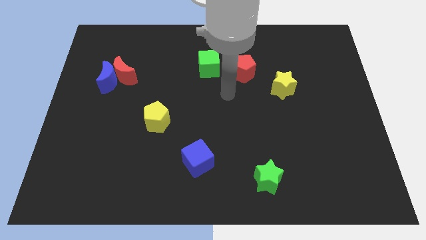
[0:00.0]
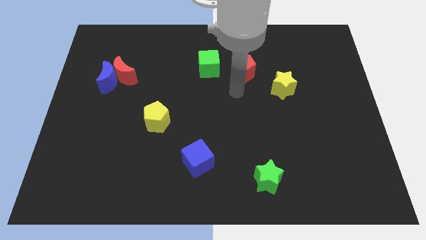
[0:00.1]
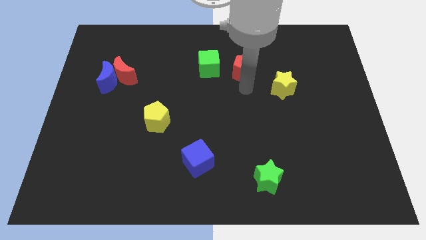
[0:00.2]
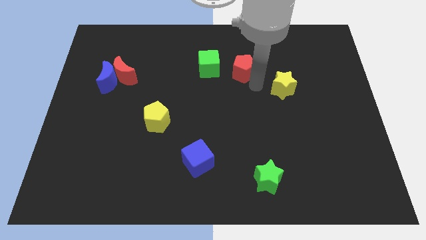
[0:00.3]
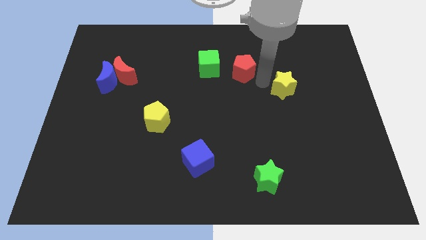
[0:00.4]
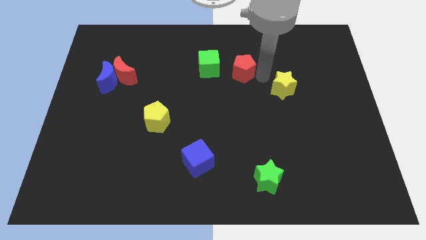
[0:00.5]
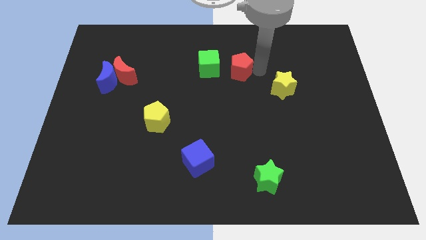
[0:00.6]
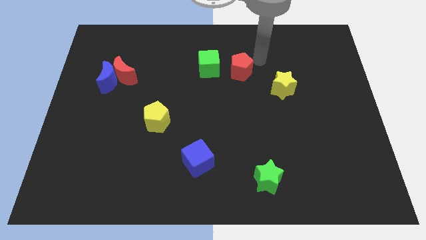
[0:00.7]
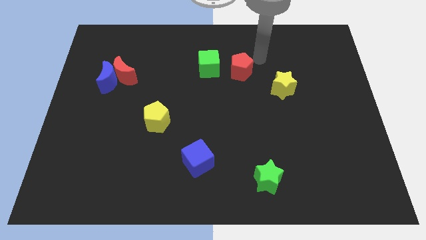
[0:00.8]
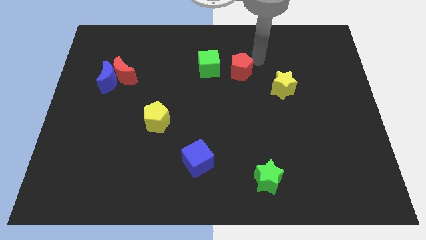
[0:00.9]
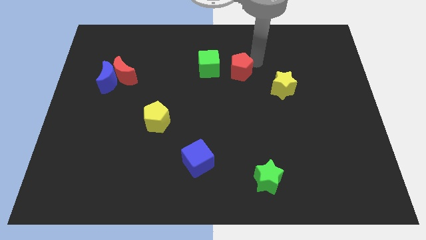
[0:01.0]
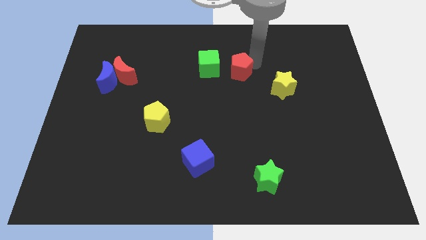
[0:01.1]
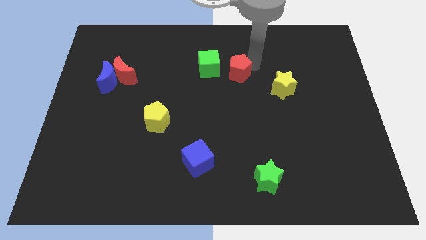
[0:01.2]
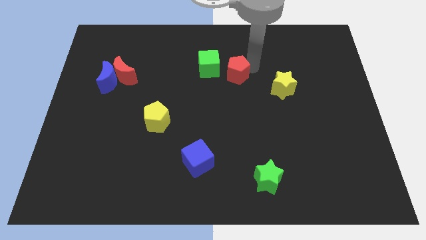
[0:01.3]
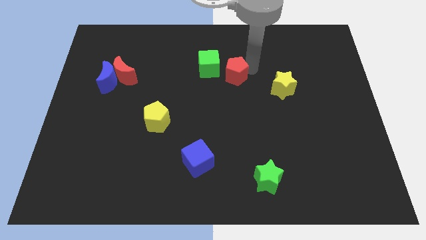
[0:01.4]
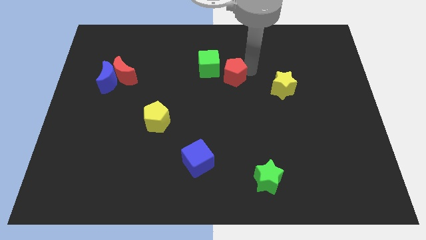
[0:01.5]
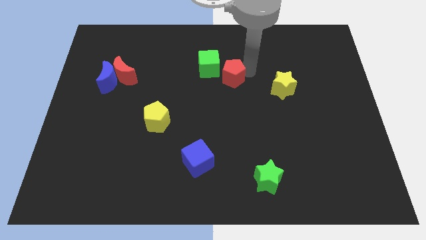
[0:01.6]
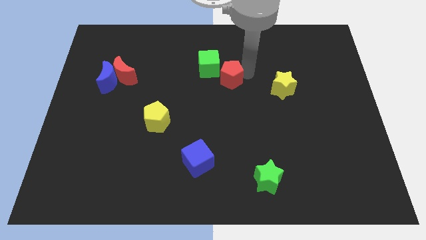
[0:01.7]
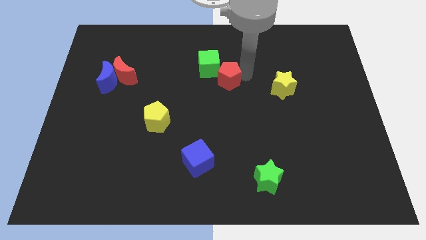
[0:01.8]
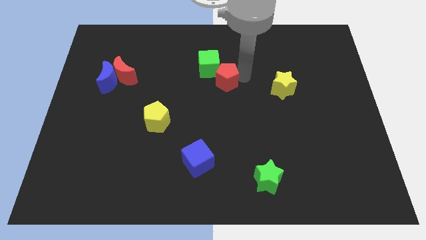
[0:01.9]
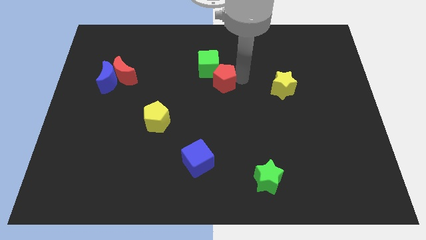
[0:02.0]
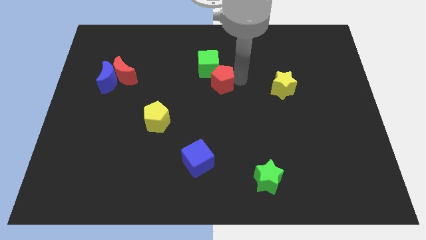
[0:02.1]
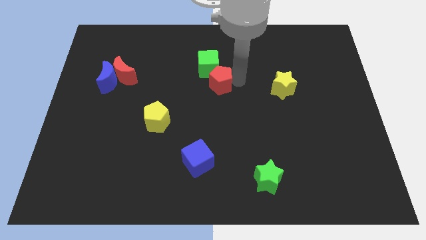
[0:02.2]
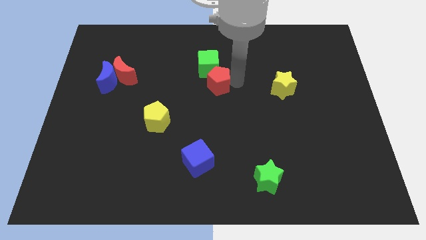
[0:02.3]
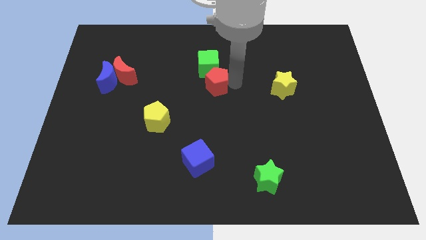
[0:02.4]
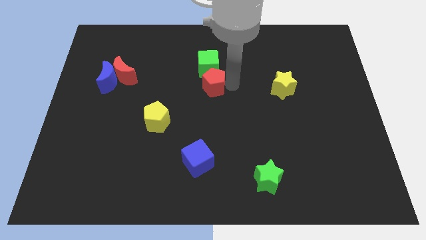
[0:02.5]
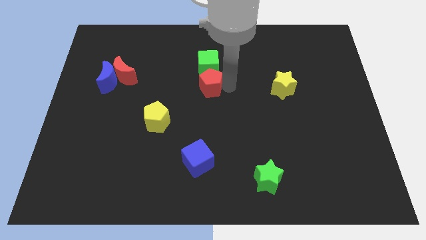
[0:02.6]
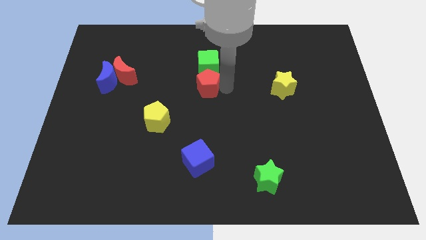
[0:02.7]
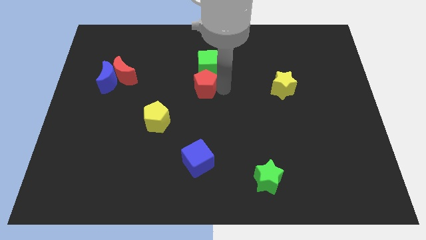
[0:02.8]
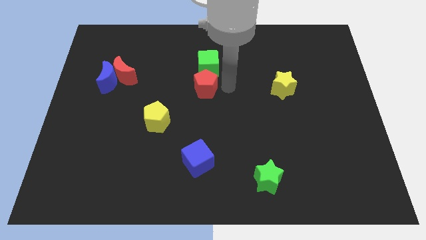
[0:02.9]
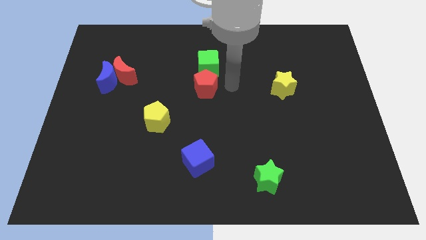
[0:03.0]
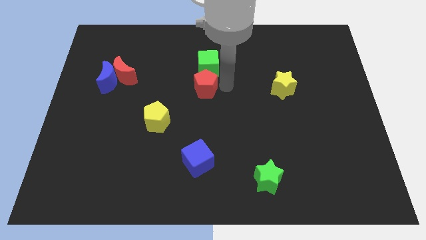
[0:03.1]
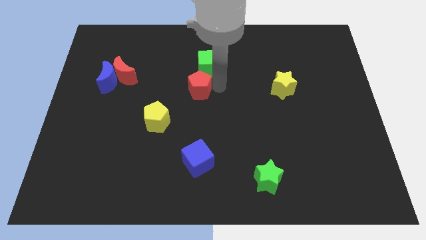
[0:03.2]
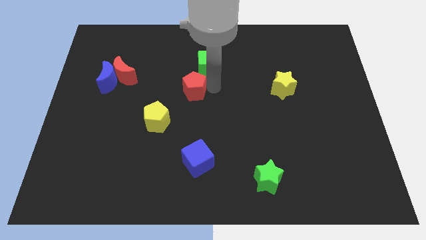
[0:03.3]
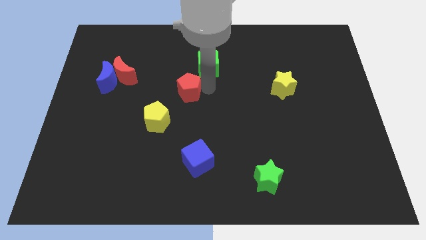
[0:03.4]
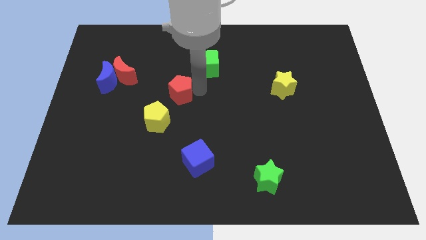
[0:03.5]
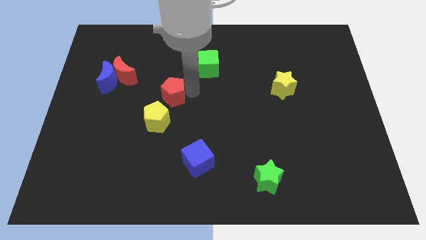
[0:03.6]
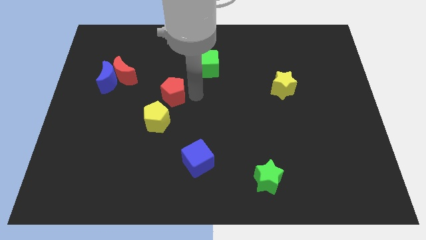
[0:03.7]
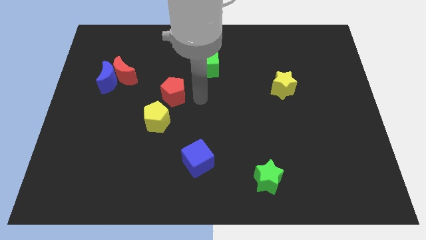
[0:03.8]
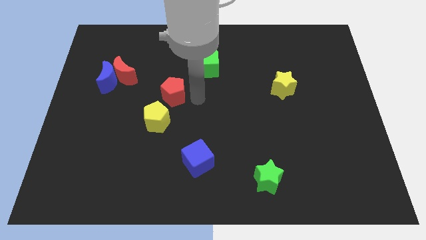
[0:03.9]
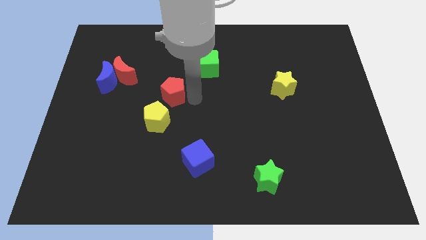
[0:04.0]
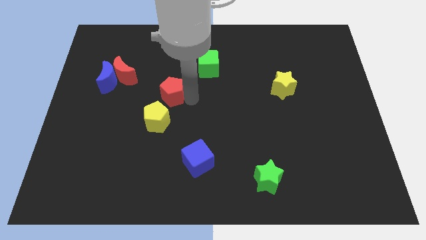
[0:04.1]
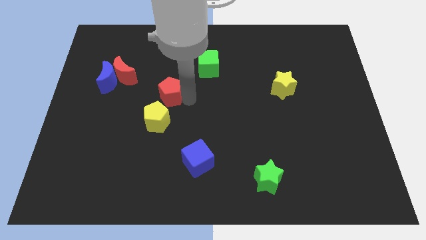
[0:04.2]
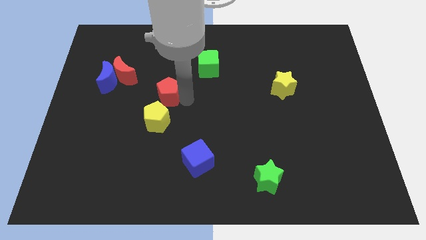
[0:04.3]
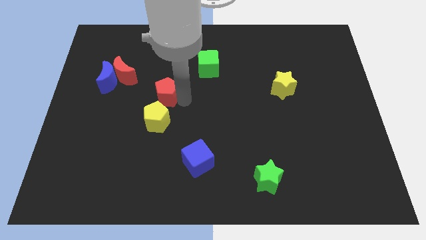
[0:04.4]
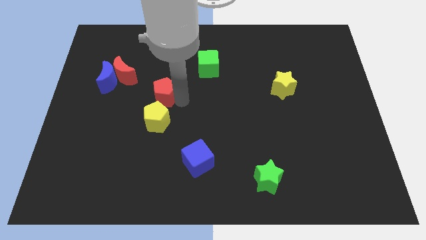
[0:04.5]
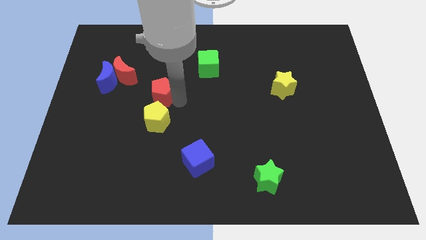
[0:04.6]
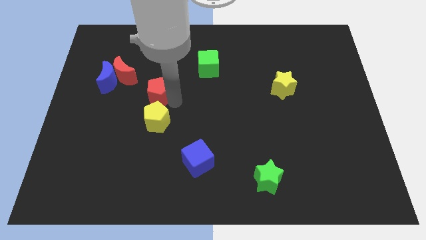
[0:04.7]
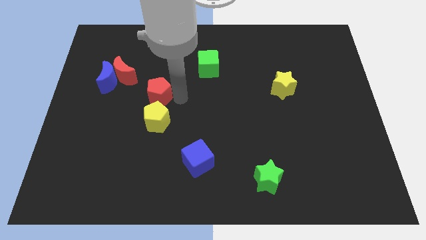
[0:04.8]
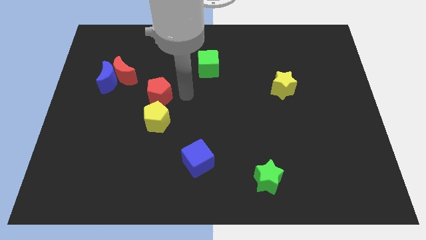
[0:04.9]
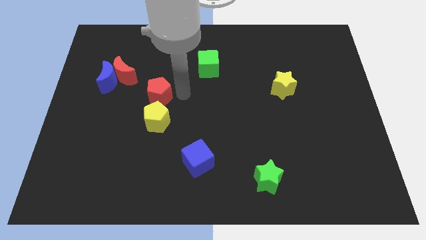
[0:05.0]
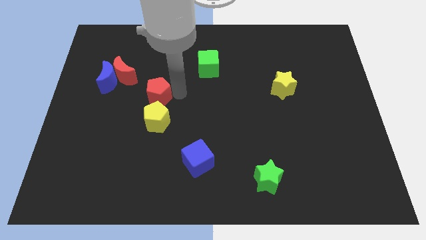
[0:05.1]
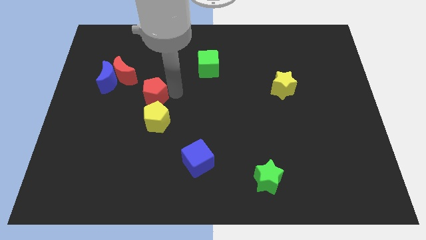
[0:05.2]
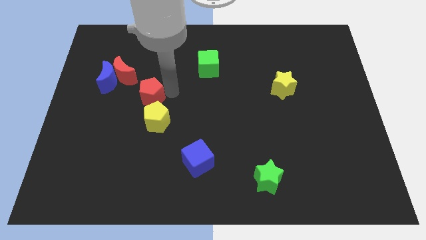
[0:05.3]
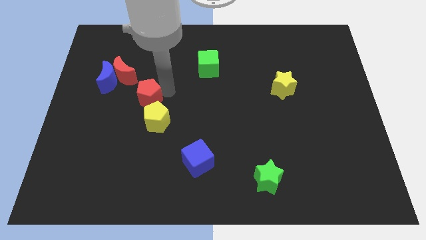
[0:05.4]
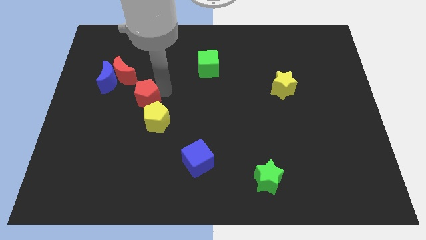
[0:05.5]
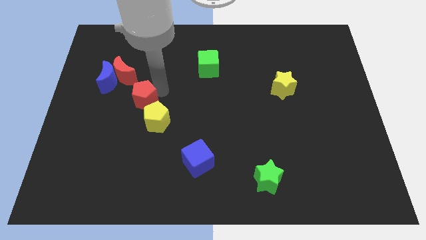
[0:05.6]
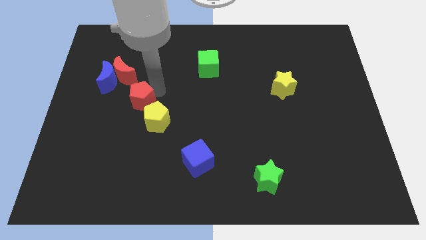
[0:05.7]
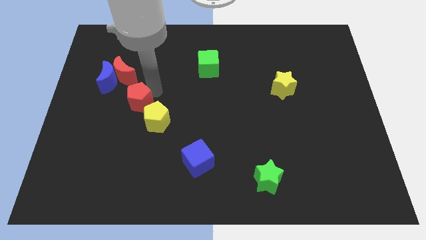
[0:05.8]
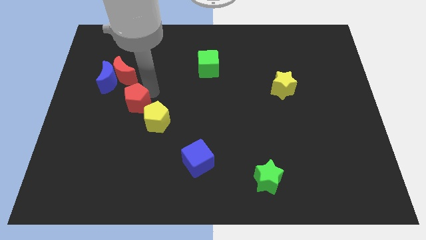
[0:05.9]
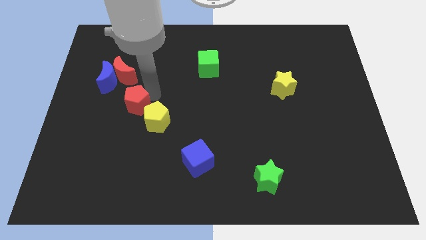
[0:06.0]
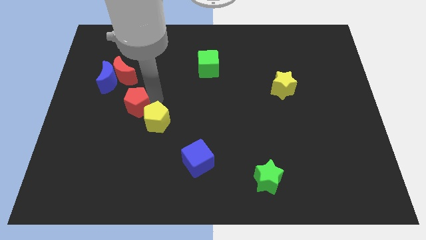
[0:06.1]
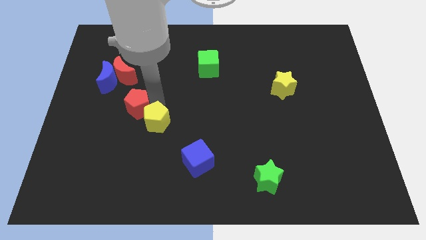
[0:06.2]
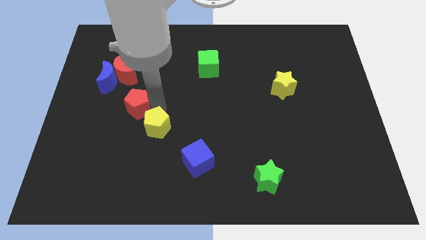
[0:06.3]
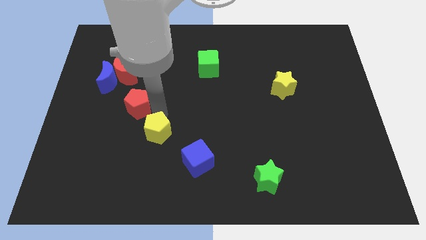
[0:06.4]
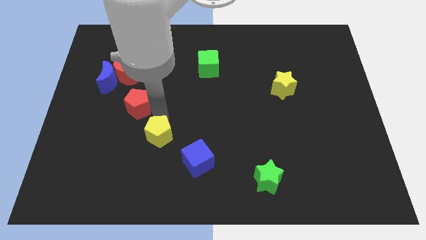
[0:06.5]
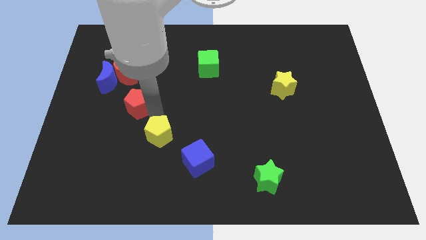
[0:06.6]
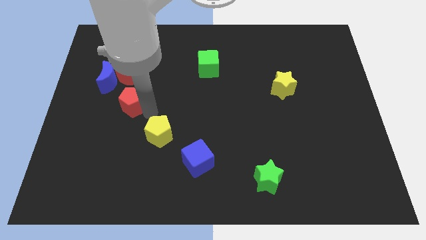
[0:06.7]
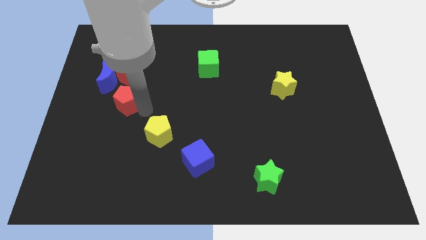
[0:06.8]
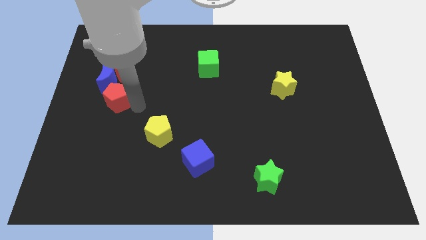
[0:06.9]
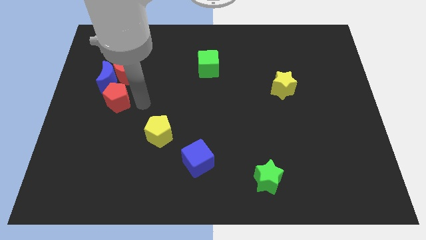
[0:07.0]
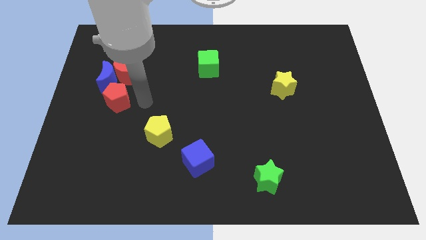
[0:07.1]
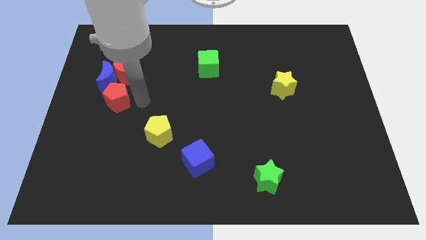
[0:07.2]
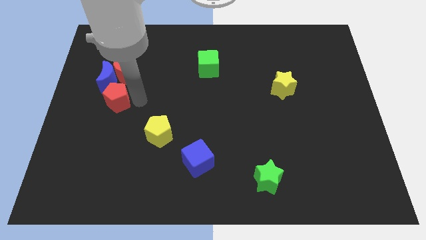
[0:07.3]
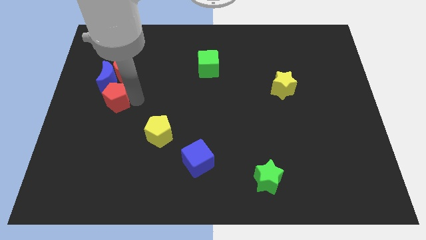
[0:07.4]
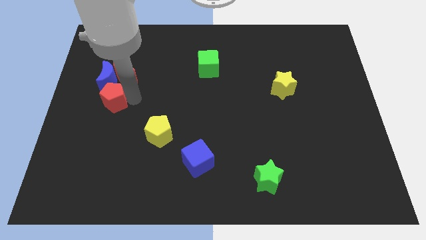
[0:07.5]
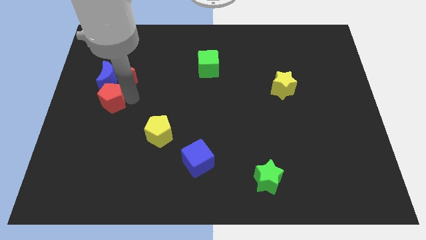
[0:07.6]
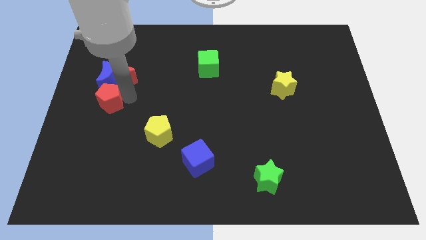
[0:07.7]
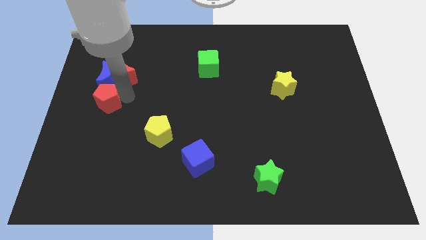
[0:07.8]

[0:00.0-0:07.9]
push the red pentagon to the center left
